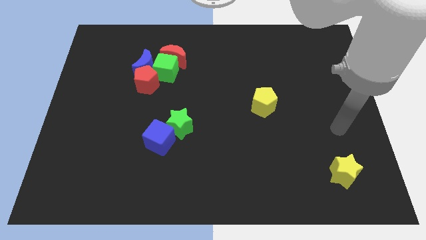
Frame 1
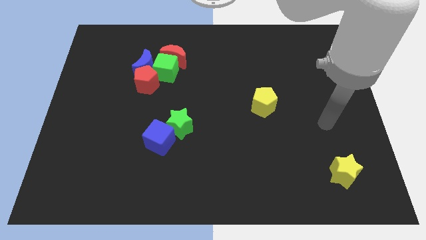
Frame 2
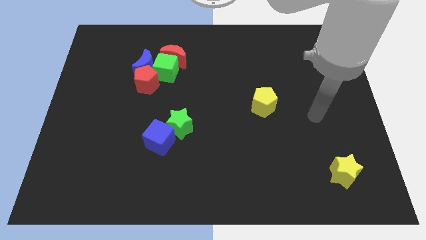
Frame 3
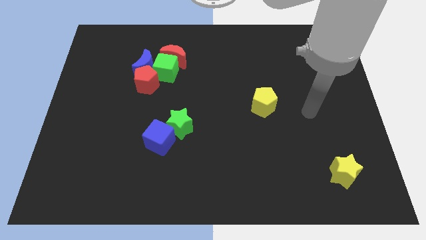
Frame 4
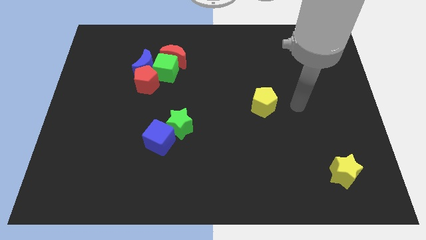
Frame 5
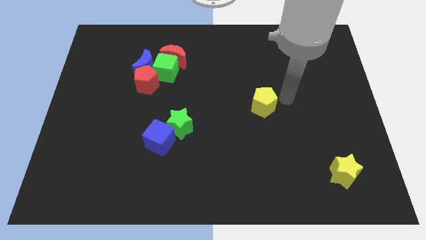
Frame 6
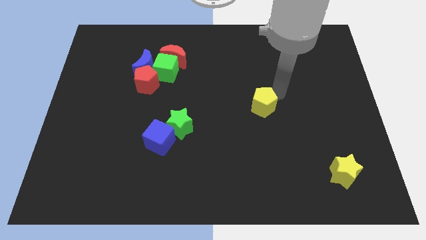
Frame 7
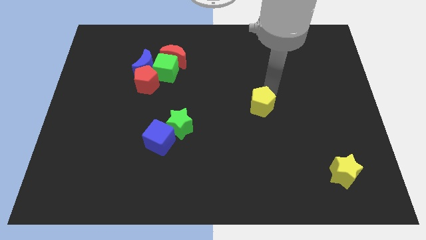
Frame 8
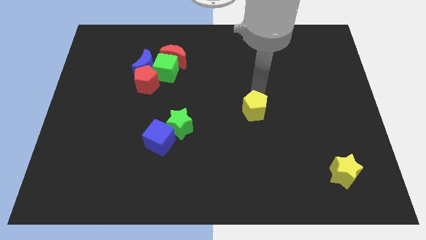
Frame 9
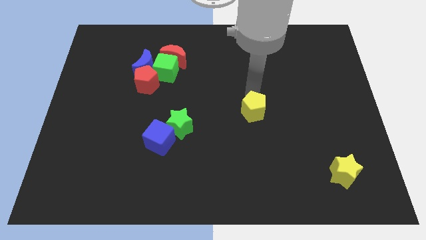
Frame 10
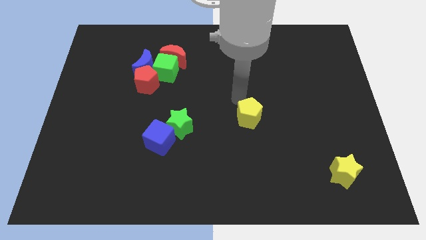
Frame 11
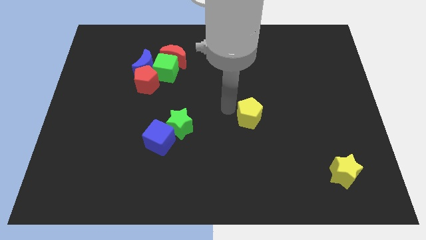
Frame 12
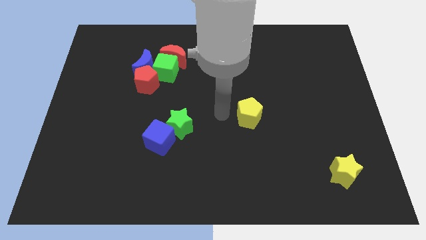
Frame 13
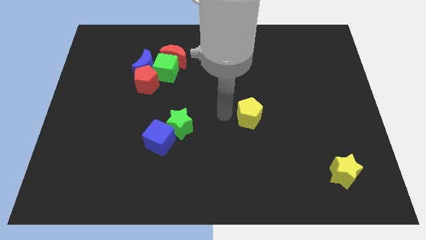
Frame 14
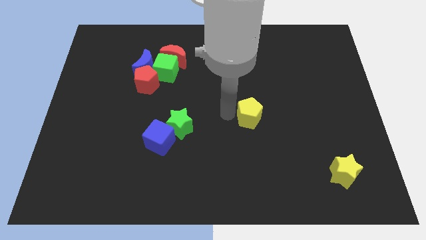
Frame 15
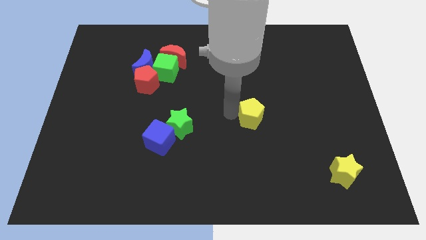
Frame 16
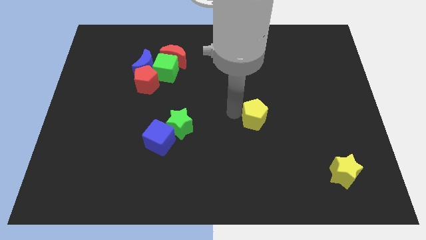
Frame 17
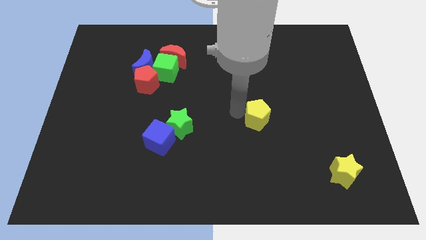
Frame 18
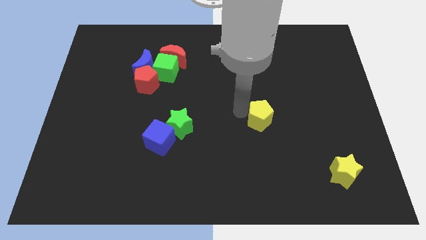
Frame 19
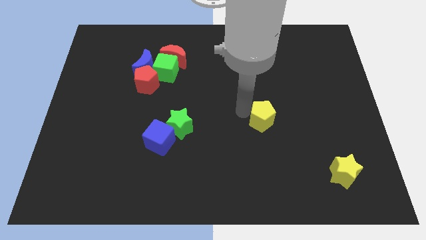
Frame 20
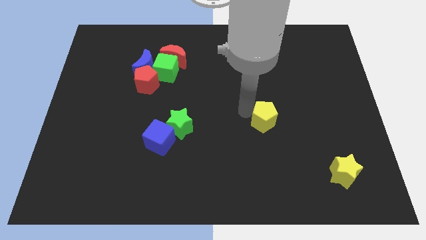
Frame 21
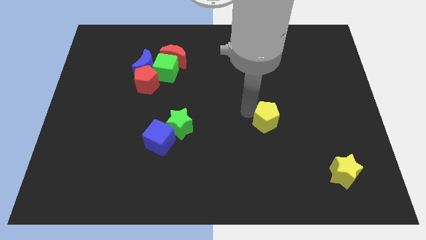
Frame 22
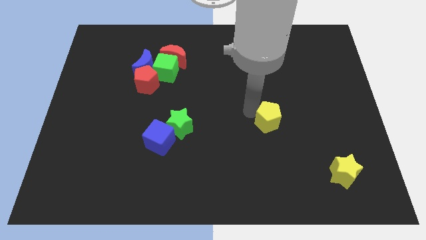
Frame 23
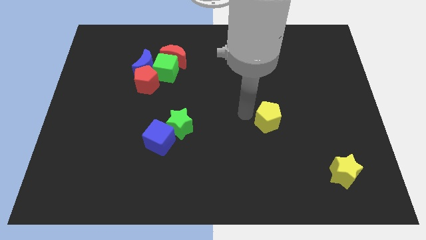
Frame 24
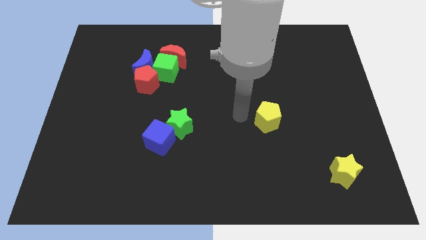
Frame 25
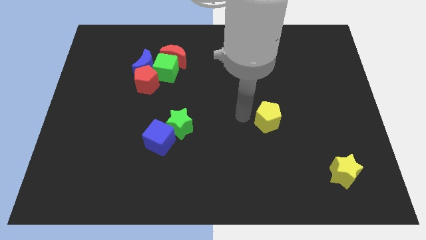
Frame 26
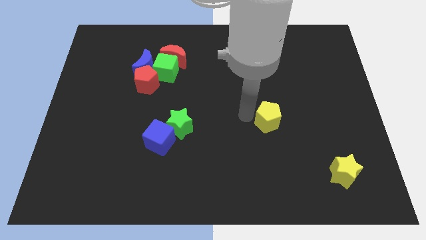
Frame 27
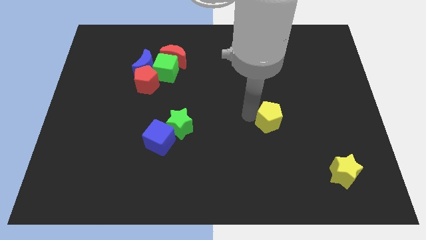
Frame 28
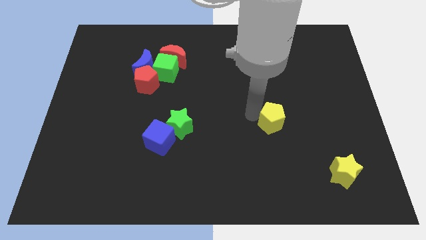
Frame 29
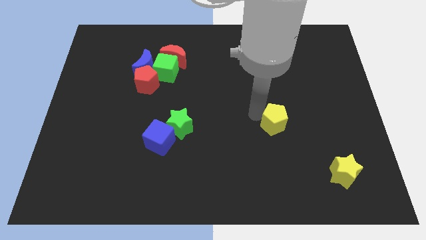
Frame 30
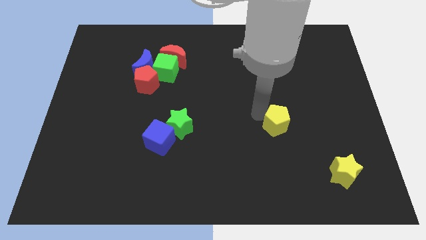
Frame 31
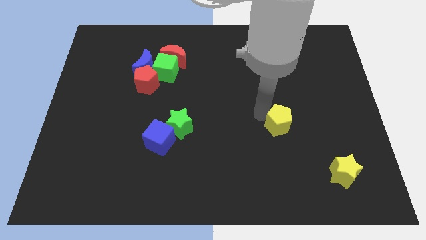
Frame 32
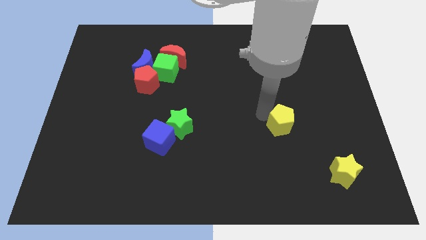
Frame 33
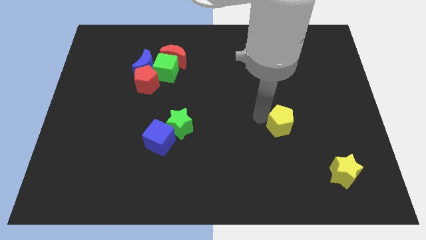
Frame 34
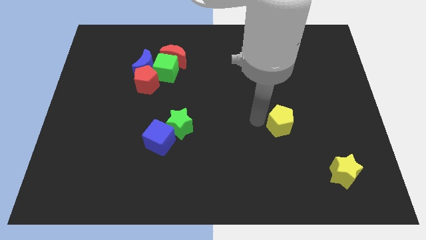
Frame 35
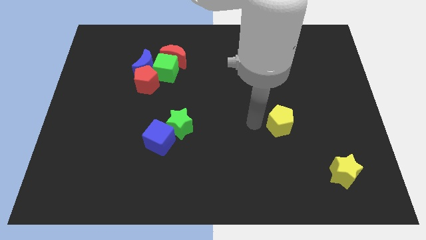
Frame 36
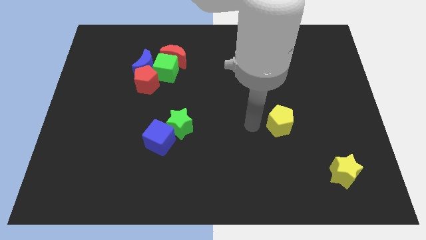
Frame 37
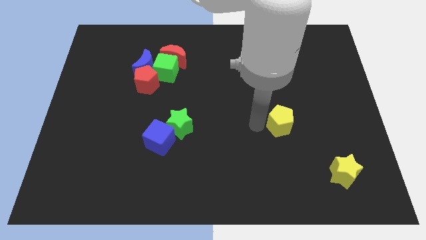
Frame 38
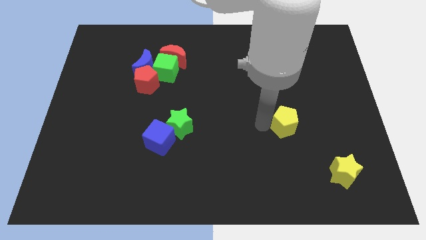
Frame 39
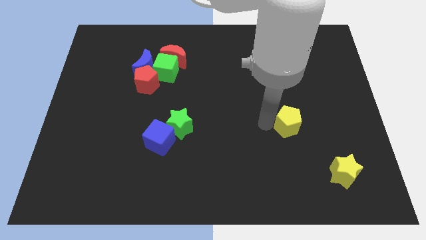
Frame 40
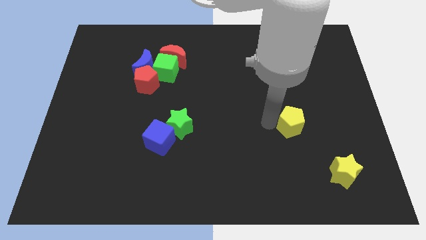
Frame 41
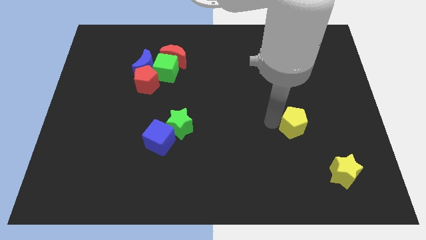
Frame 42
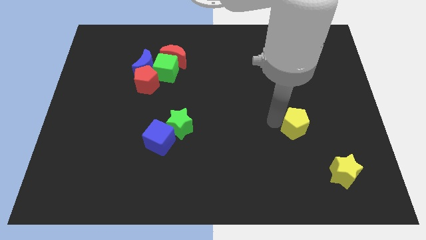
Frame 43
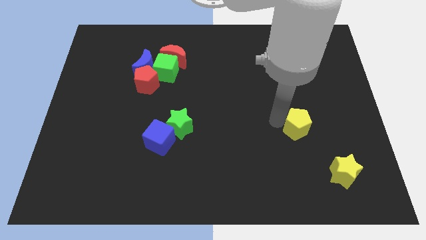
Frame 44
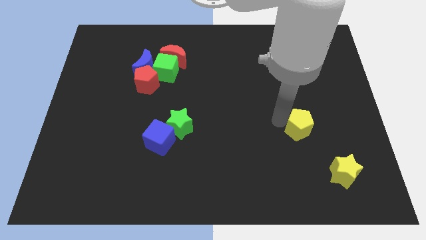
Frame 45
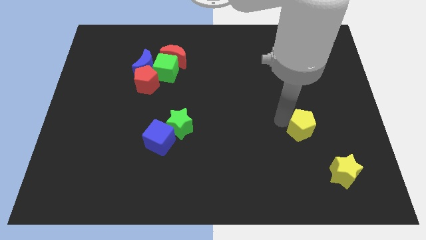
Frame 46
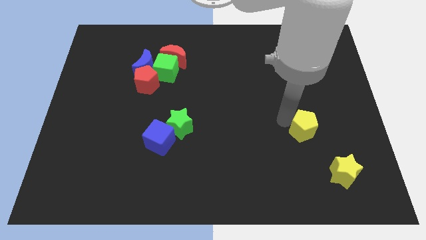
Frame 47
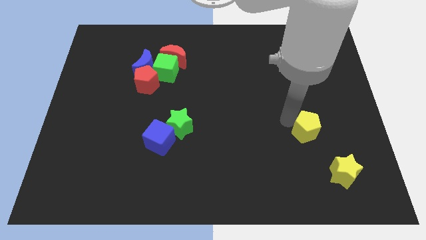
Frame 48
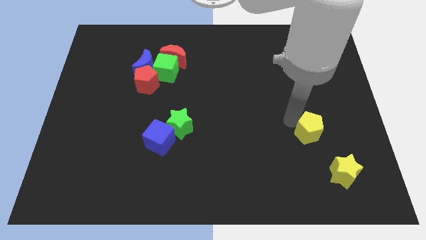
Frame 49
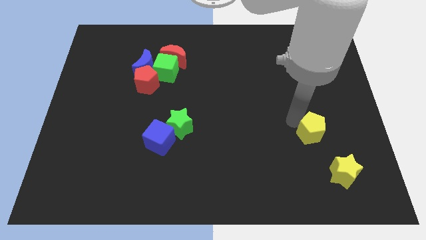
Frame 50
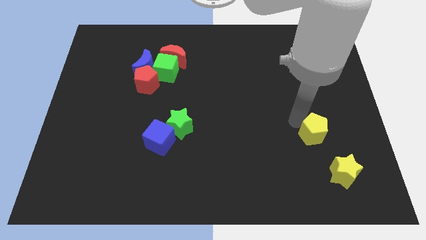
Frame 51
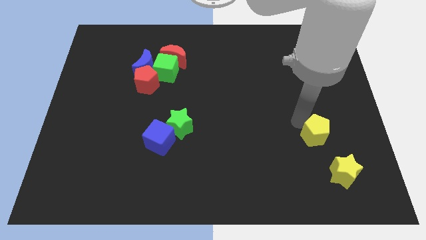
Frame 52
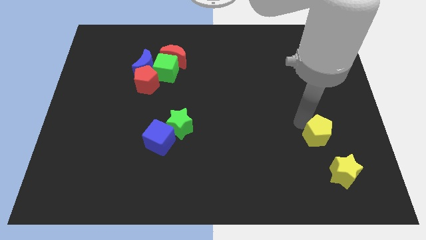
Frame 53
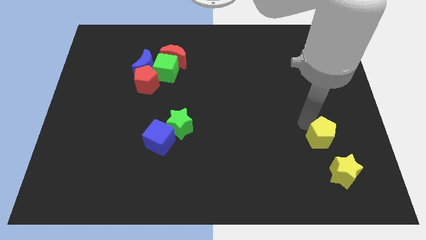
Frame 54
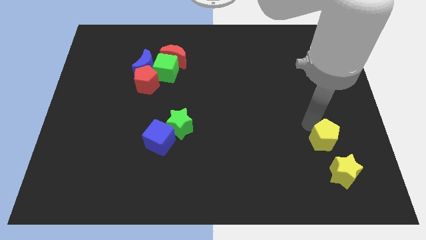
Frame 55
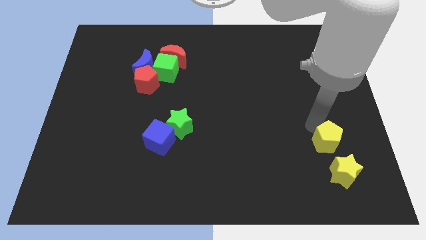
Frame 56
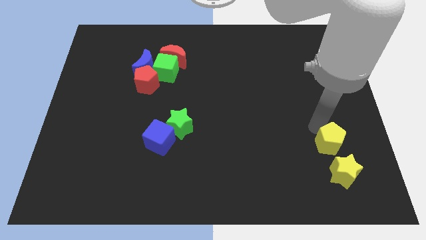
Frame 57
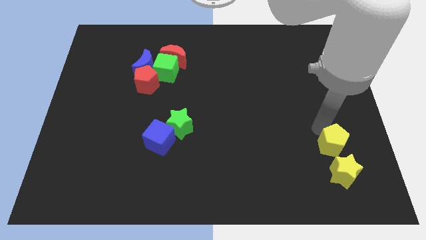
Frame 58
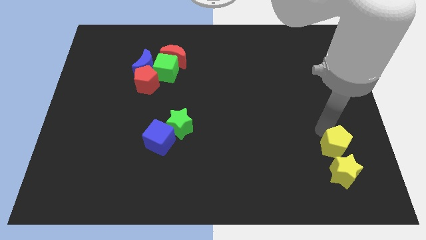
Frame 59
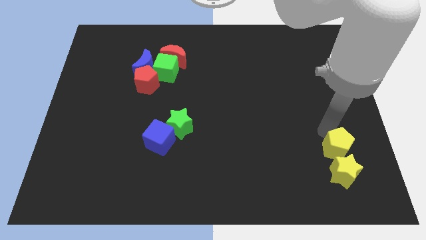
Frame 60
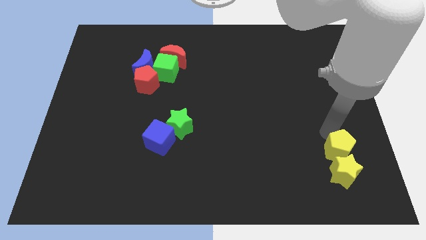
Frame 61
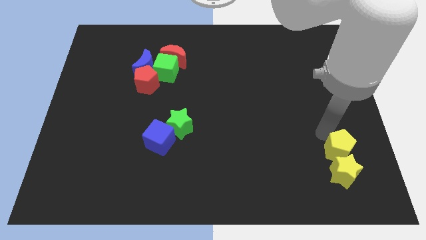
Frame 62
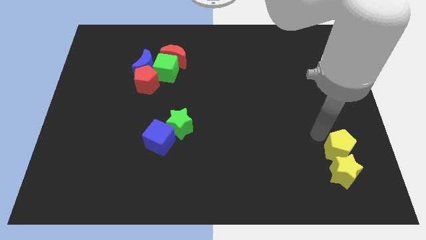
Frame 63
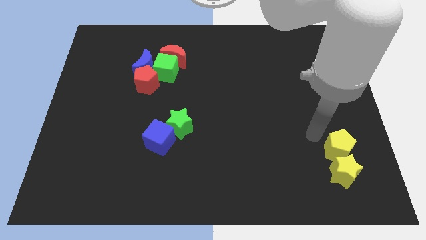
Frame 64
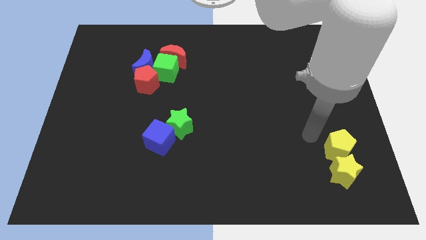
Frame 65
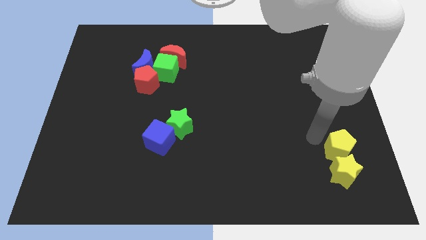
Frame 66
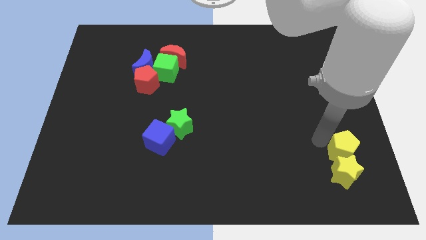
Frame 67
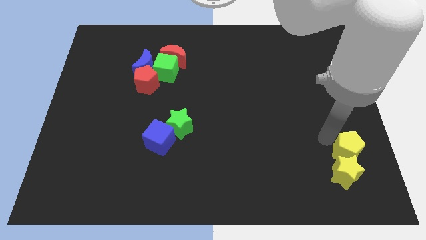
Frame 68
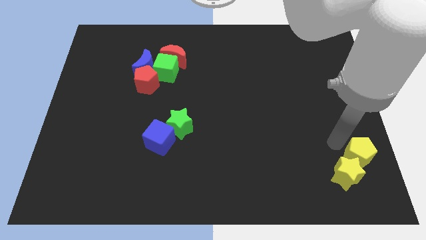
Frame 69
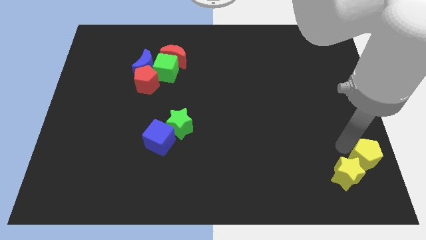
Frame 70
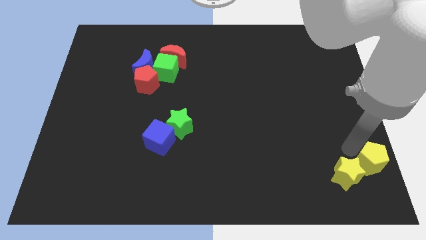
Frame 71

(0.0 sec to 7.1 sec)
move the yellow pentagon to the bottom right corner
